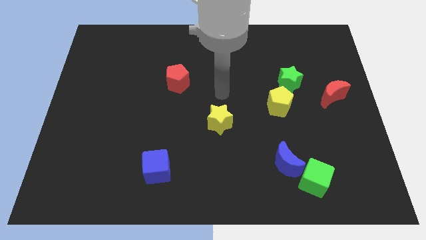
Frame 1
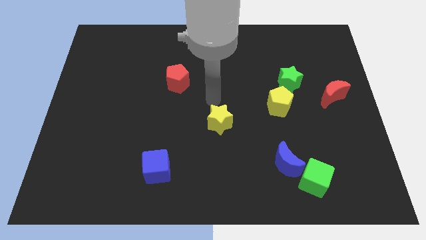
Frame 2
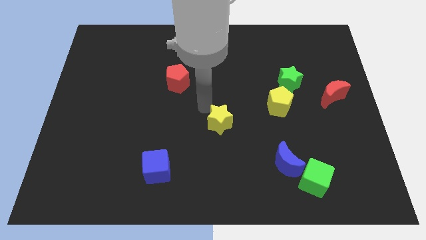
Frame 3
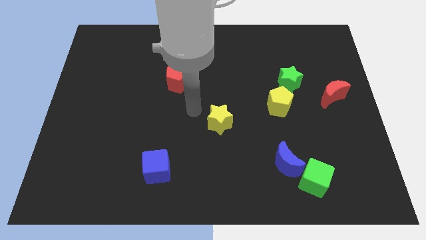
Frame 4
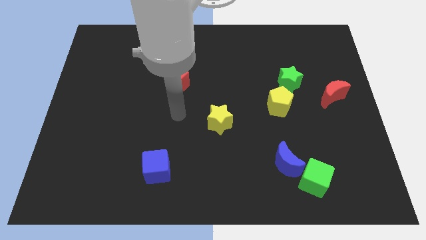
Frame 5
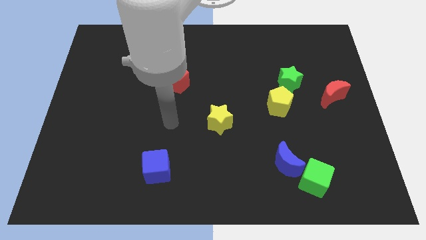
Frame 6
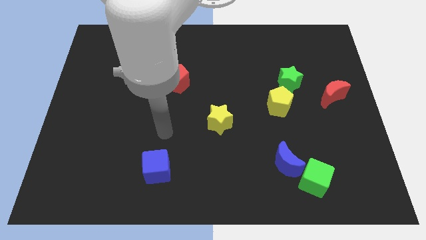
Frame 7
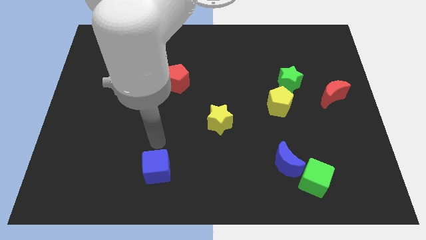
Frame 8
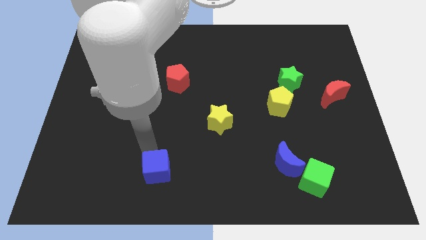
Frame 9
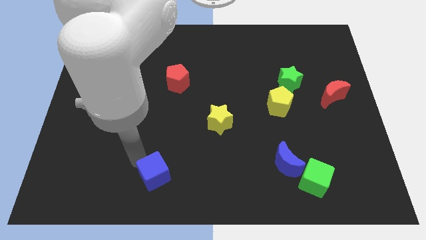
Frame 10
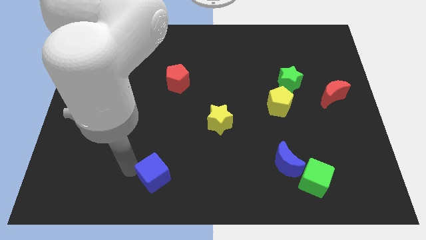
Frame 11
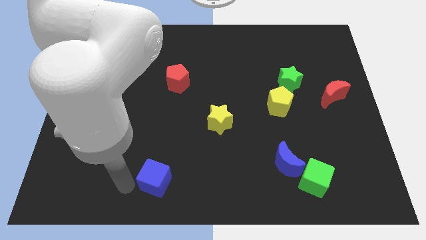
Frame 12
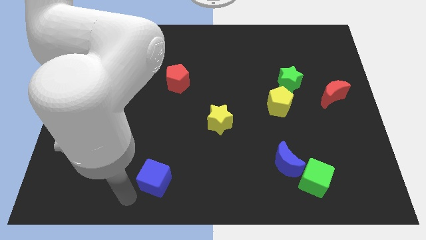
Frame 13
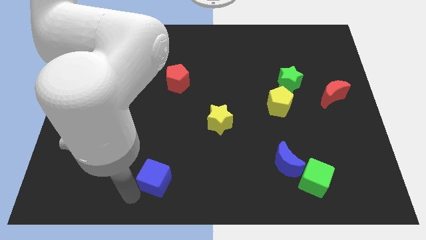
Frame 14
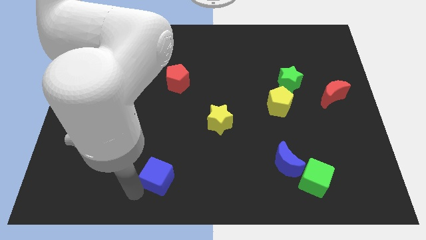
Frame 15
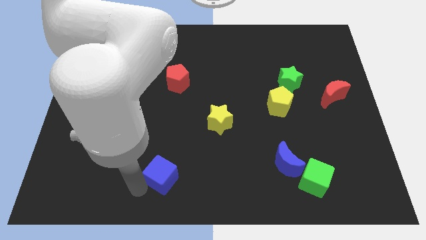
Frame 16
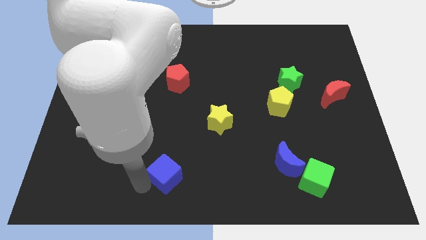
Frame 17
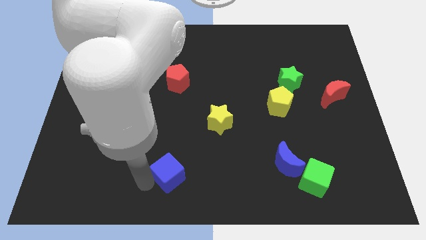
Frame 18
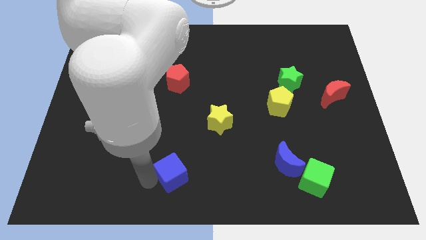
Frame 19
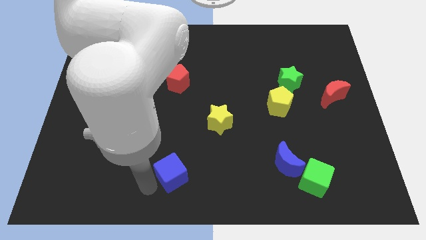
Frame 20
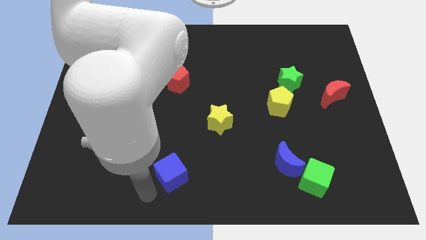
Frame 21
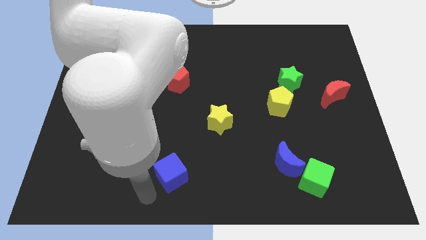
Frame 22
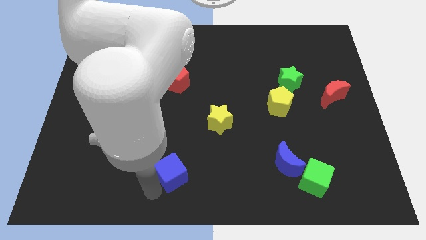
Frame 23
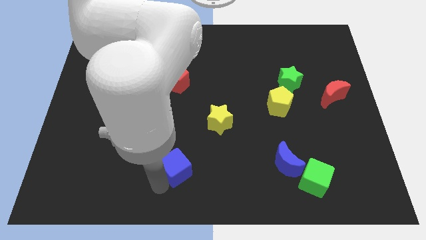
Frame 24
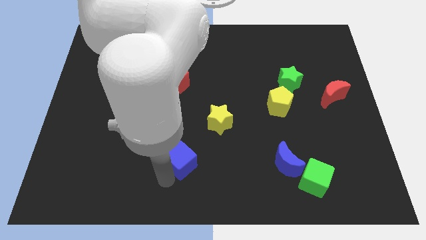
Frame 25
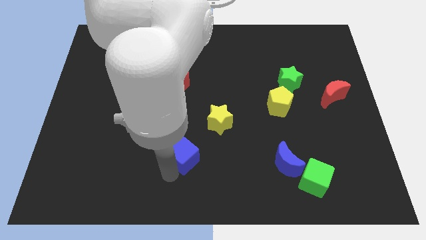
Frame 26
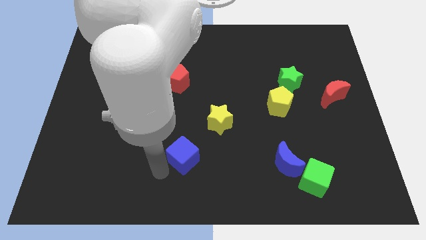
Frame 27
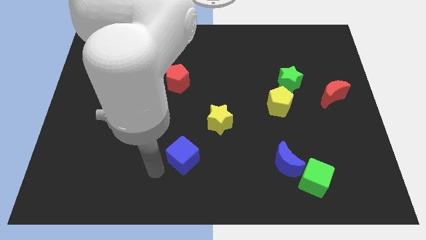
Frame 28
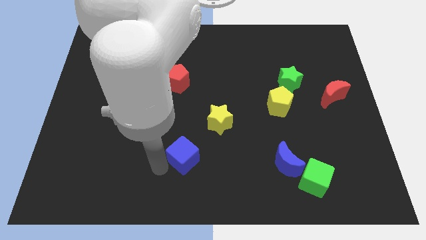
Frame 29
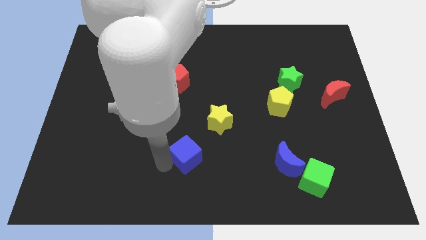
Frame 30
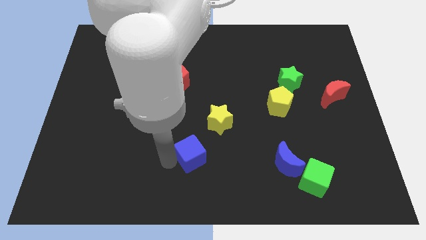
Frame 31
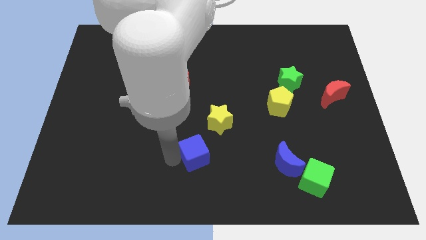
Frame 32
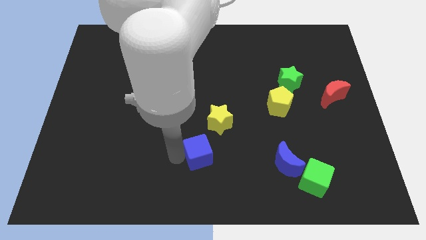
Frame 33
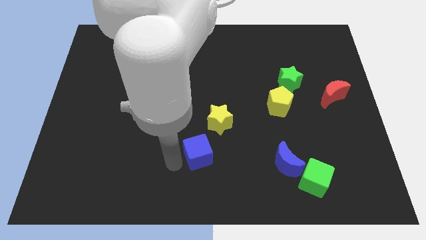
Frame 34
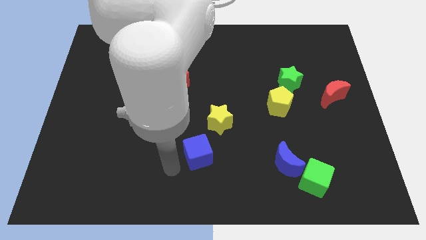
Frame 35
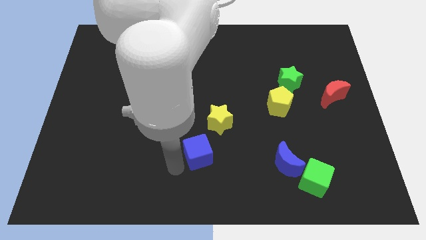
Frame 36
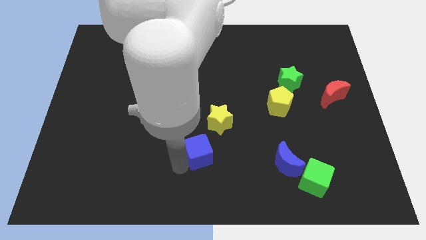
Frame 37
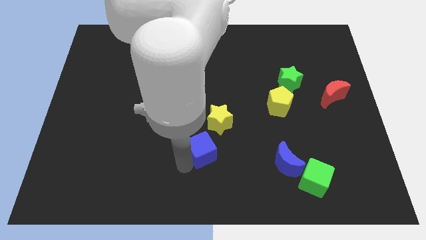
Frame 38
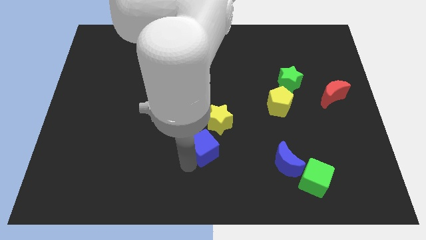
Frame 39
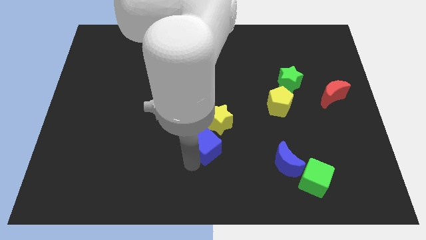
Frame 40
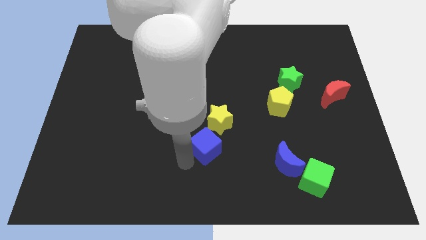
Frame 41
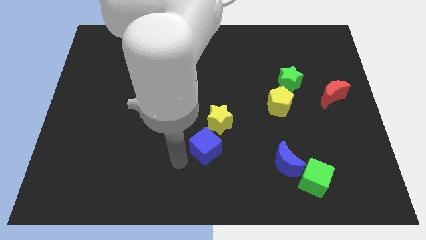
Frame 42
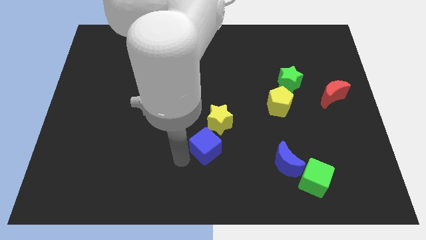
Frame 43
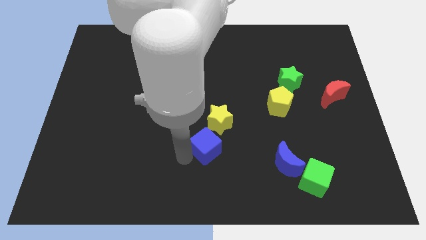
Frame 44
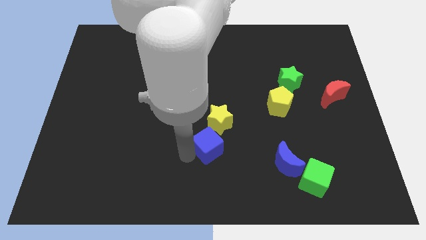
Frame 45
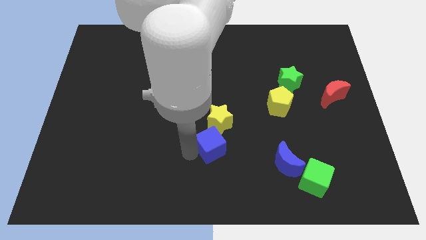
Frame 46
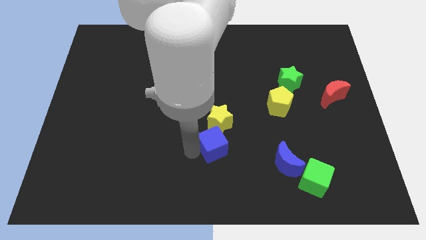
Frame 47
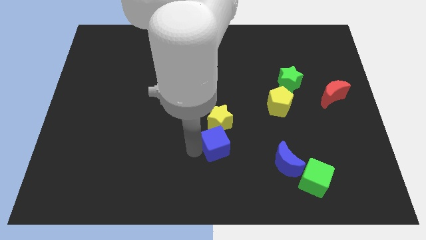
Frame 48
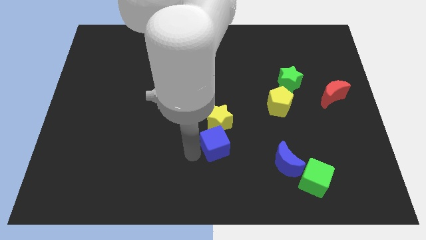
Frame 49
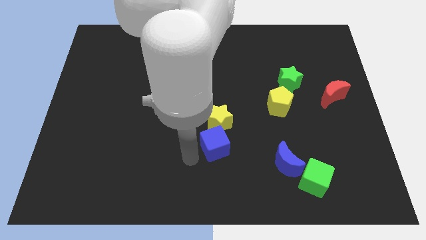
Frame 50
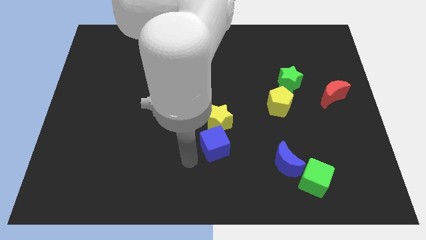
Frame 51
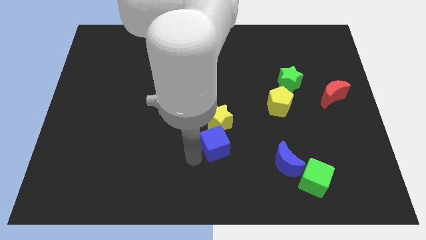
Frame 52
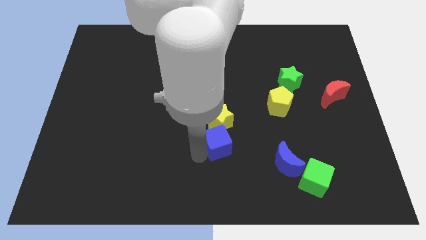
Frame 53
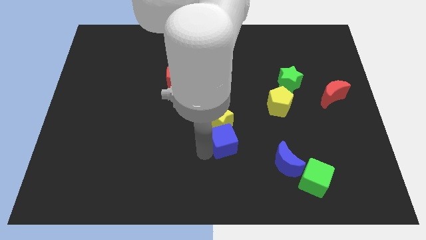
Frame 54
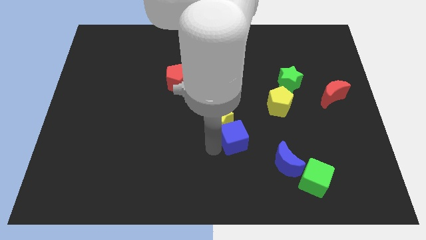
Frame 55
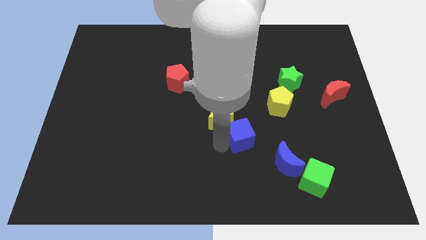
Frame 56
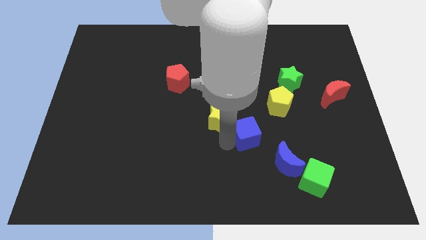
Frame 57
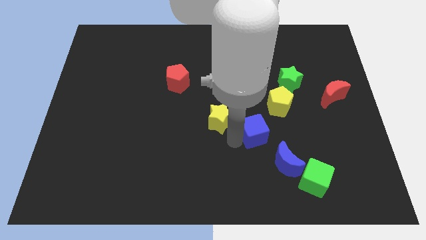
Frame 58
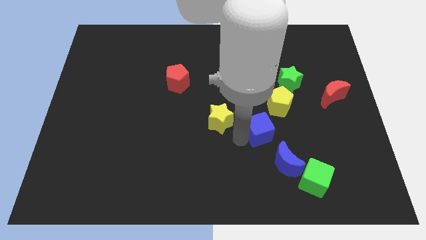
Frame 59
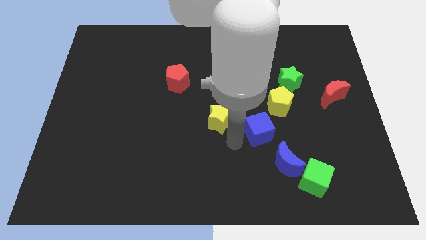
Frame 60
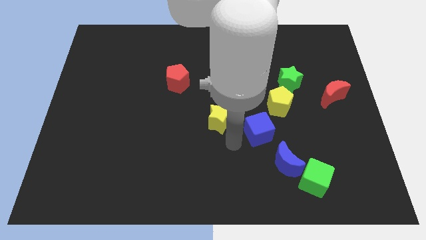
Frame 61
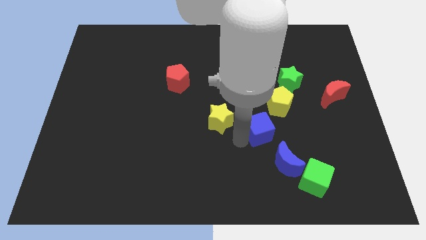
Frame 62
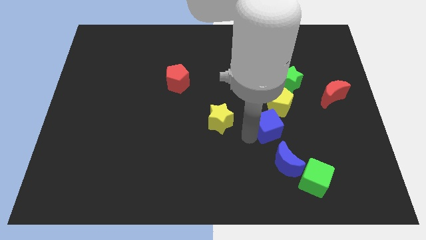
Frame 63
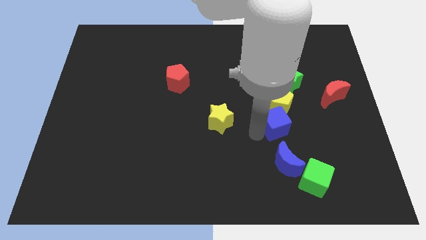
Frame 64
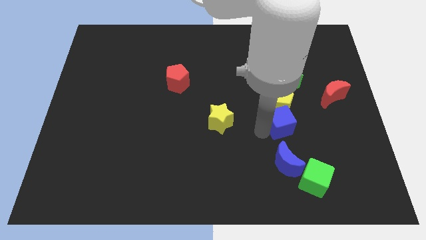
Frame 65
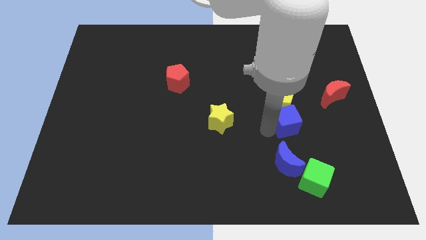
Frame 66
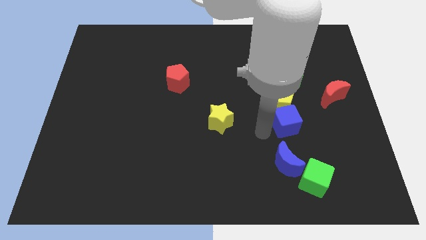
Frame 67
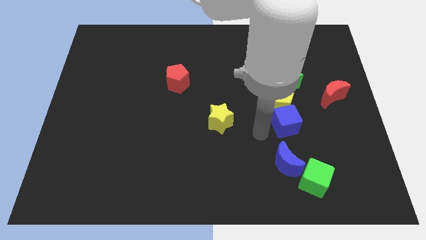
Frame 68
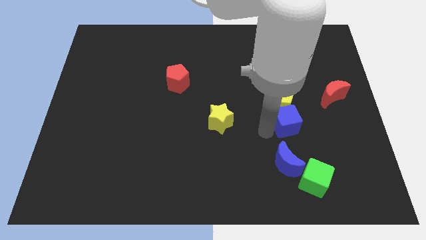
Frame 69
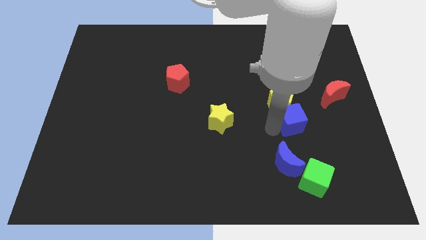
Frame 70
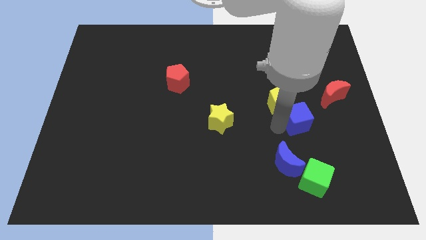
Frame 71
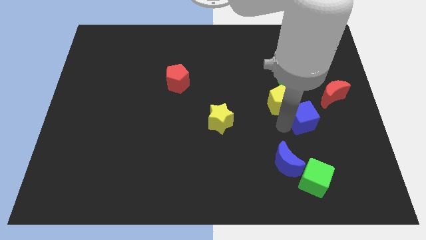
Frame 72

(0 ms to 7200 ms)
put the blue cube to the right side of the yellow pentagon
